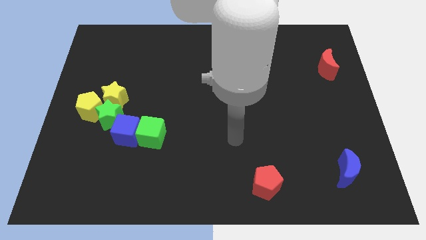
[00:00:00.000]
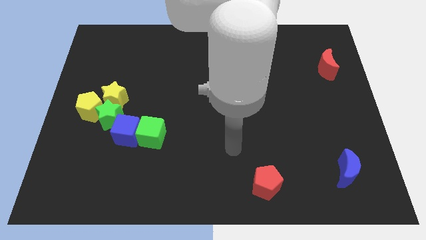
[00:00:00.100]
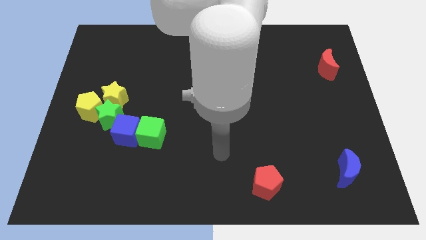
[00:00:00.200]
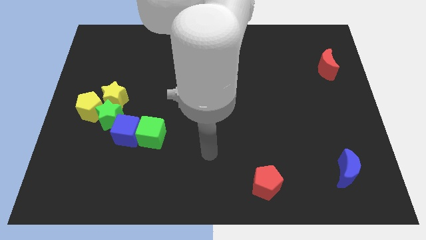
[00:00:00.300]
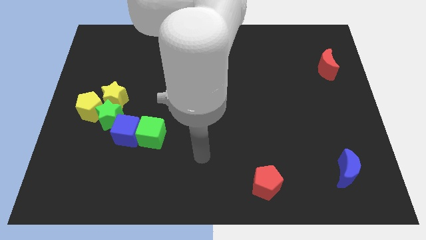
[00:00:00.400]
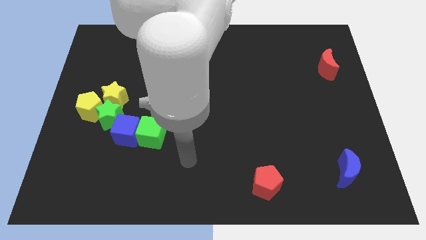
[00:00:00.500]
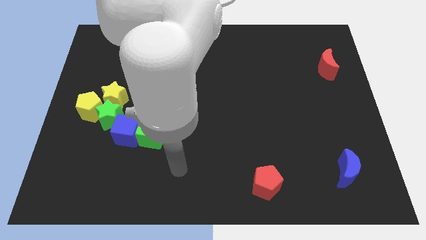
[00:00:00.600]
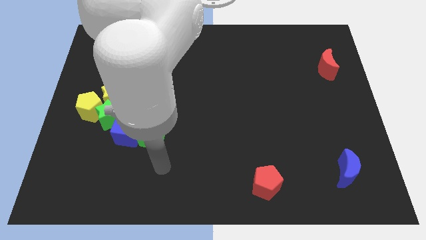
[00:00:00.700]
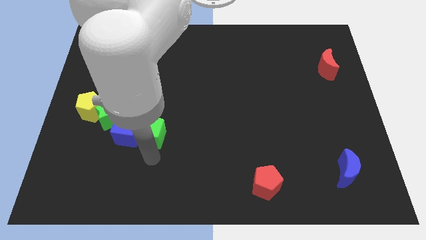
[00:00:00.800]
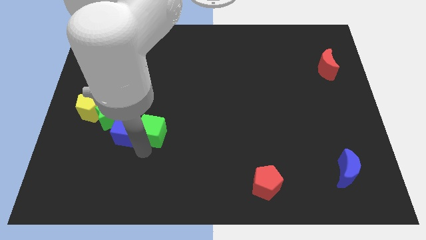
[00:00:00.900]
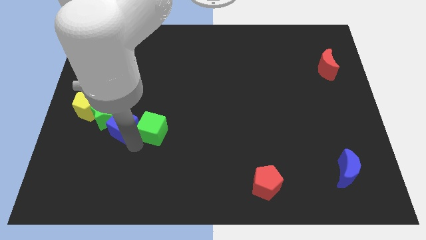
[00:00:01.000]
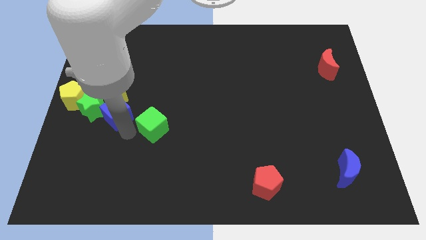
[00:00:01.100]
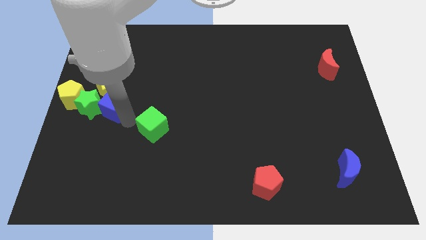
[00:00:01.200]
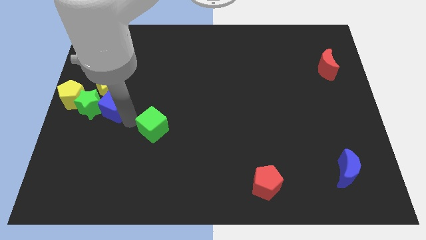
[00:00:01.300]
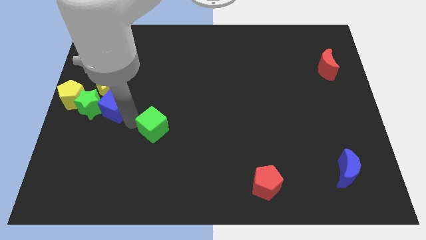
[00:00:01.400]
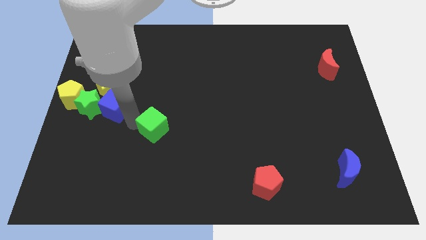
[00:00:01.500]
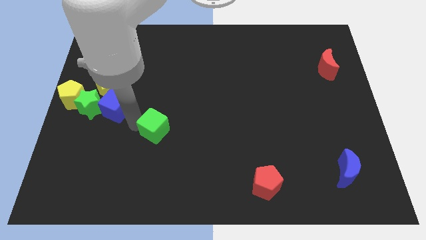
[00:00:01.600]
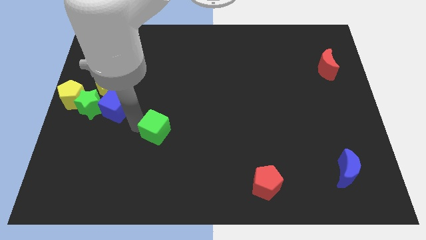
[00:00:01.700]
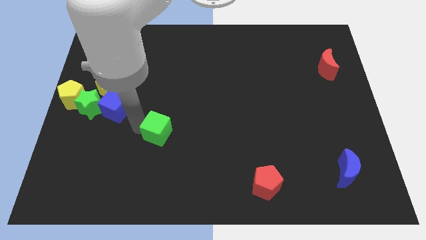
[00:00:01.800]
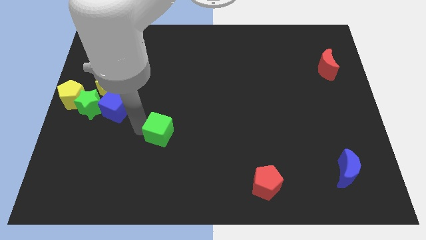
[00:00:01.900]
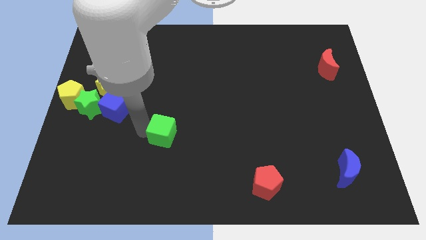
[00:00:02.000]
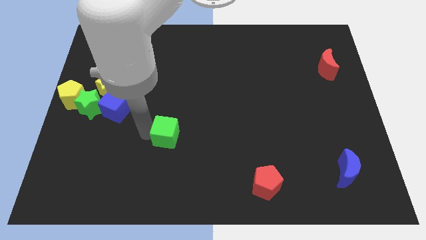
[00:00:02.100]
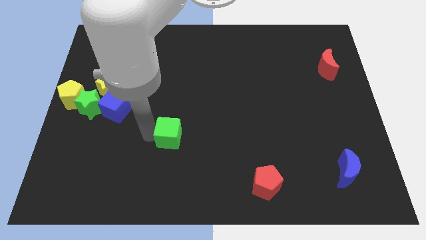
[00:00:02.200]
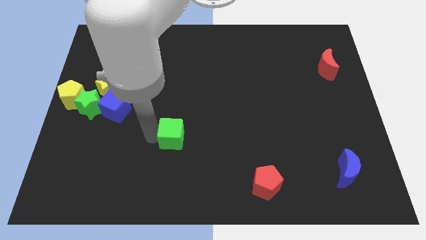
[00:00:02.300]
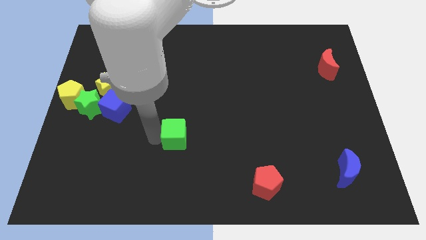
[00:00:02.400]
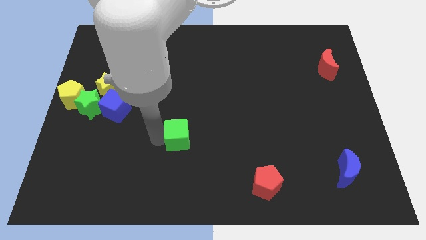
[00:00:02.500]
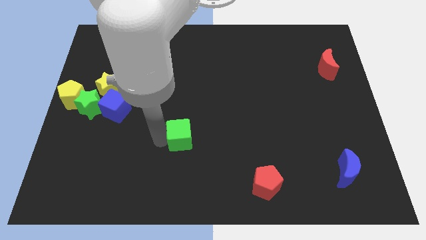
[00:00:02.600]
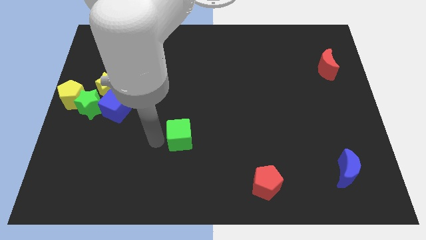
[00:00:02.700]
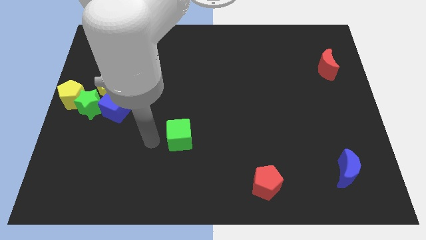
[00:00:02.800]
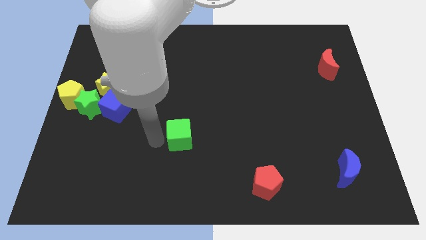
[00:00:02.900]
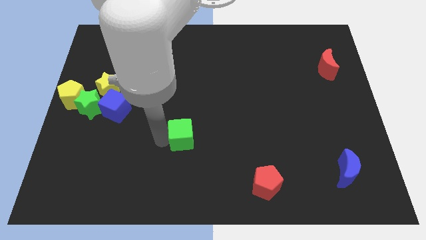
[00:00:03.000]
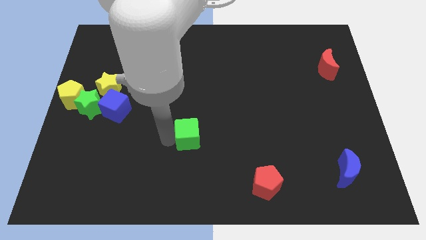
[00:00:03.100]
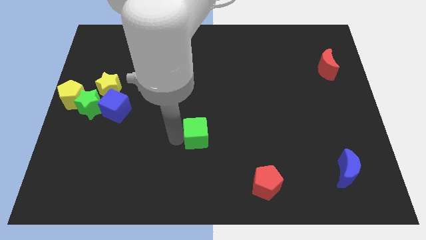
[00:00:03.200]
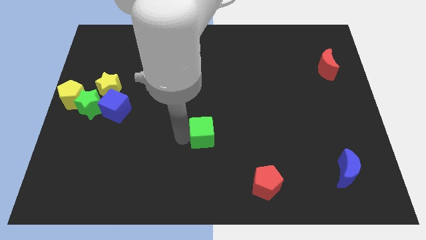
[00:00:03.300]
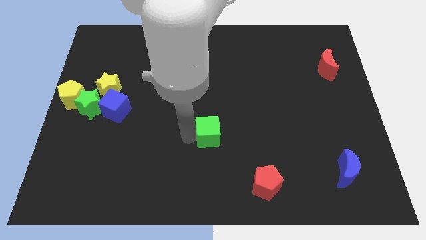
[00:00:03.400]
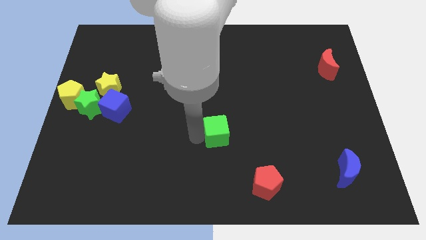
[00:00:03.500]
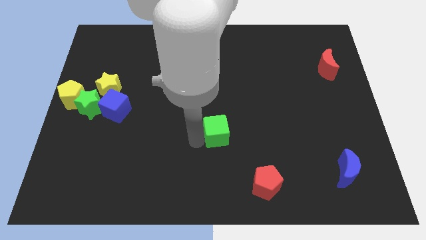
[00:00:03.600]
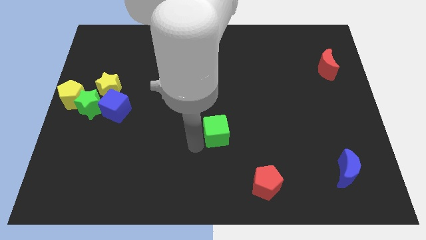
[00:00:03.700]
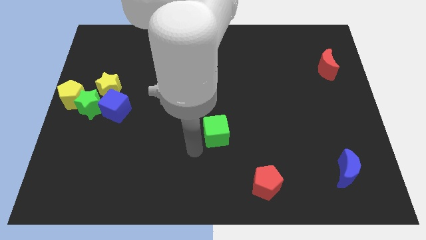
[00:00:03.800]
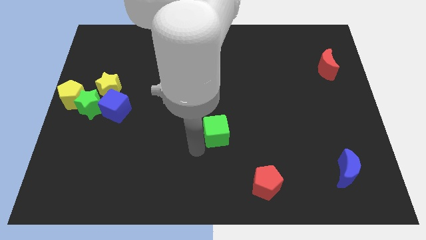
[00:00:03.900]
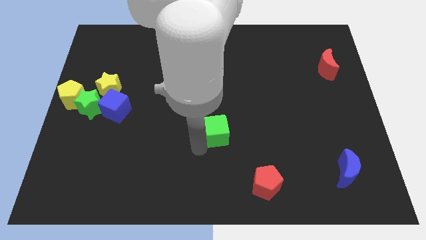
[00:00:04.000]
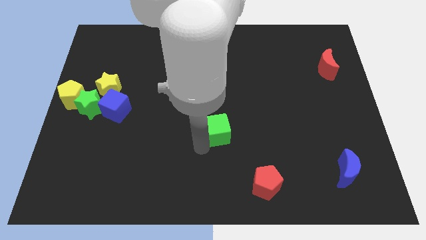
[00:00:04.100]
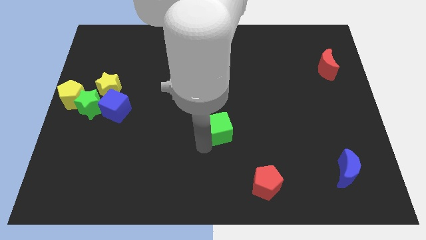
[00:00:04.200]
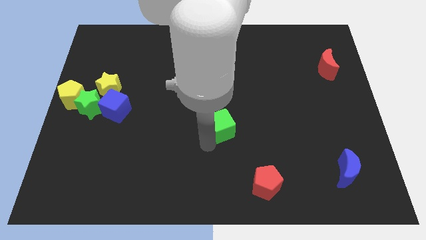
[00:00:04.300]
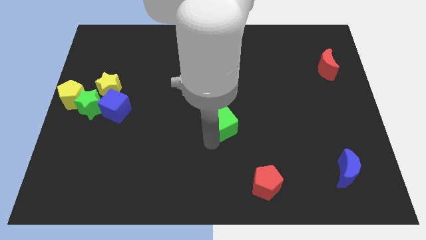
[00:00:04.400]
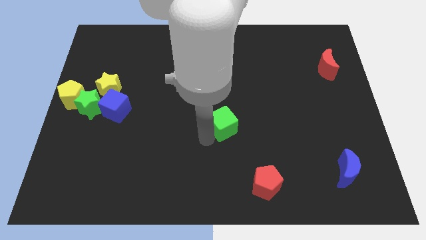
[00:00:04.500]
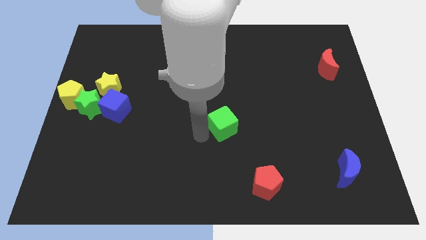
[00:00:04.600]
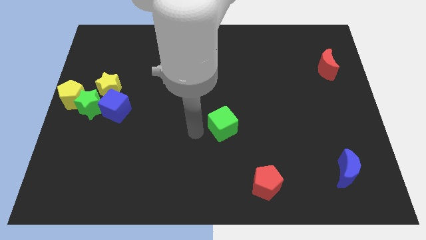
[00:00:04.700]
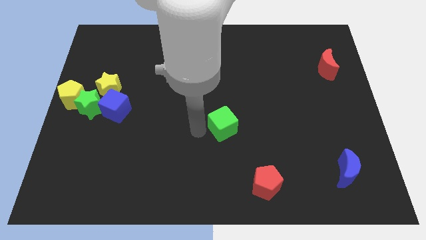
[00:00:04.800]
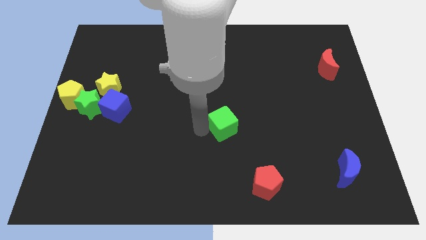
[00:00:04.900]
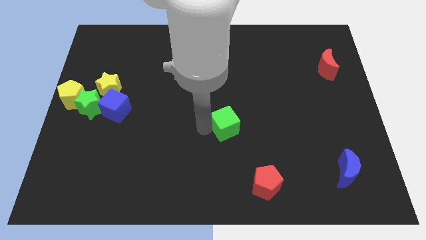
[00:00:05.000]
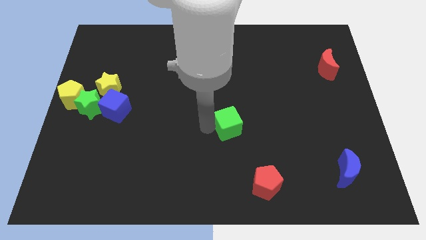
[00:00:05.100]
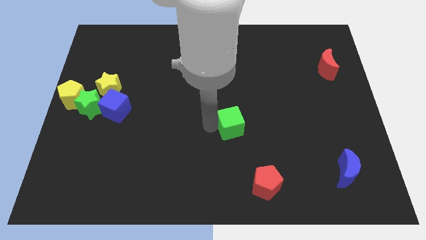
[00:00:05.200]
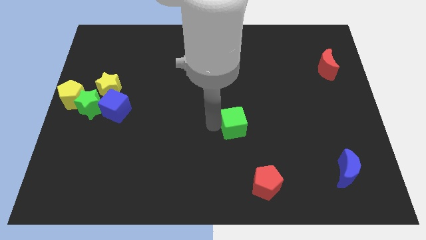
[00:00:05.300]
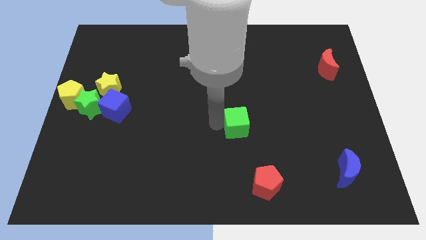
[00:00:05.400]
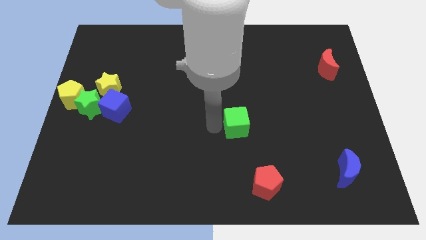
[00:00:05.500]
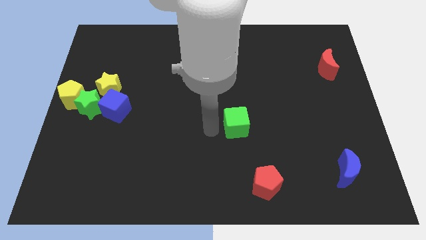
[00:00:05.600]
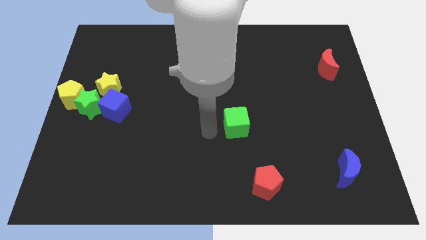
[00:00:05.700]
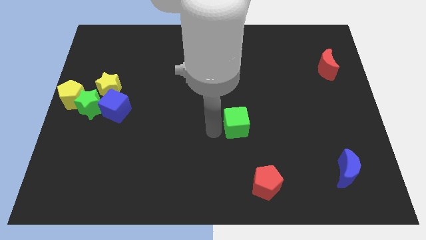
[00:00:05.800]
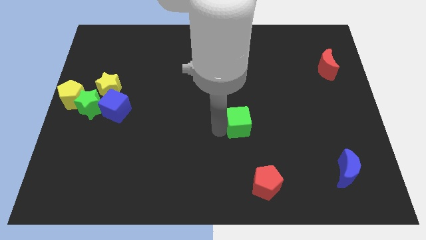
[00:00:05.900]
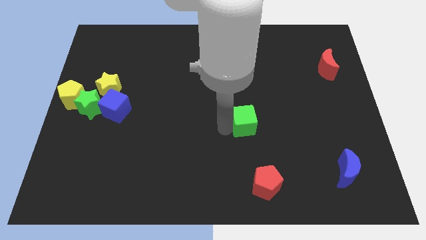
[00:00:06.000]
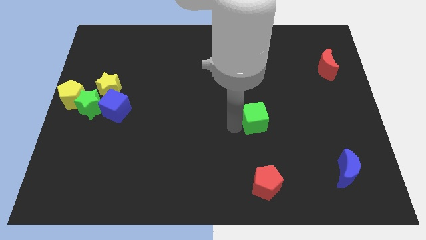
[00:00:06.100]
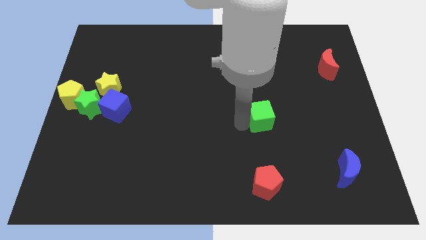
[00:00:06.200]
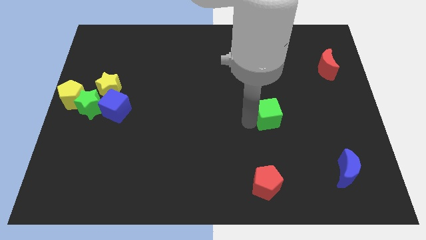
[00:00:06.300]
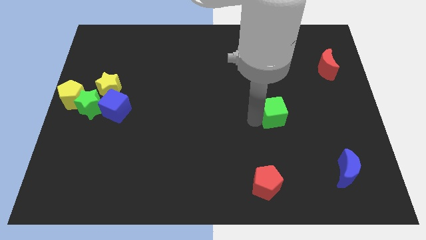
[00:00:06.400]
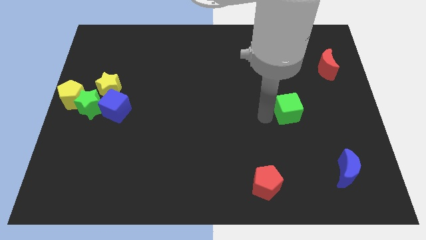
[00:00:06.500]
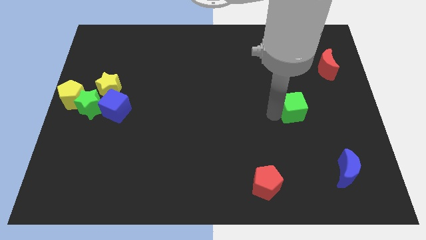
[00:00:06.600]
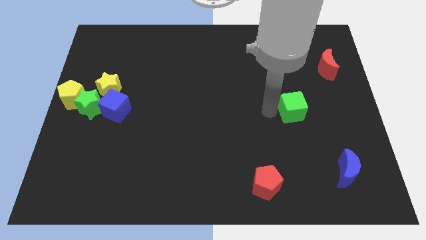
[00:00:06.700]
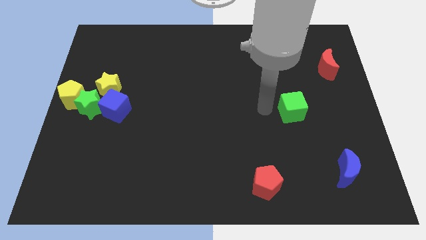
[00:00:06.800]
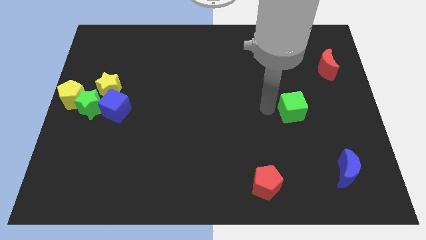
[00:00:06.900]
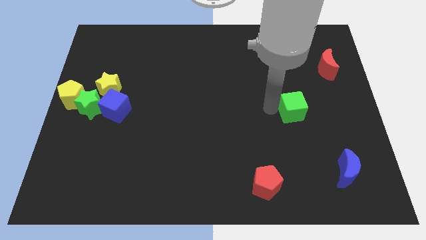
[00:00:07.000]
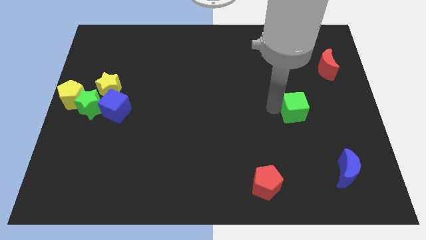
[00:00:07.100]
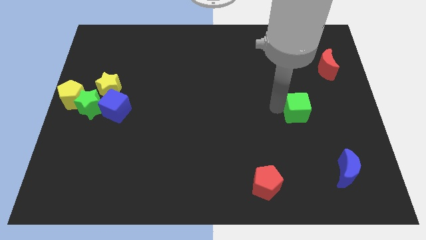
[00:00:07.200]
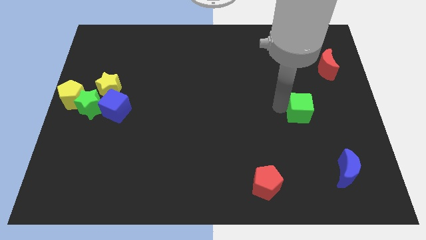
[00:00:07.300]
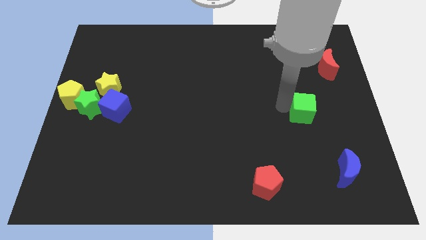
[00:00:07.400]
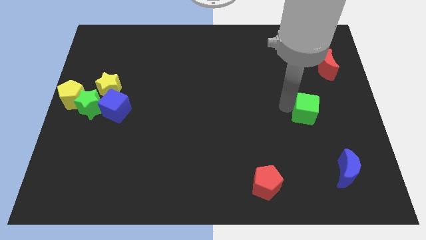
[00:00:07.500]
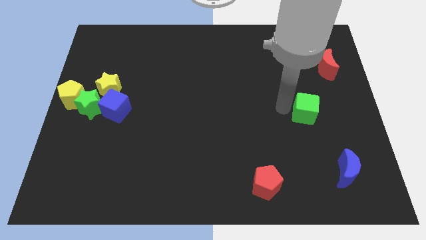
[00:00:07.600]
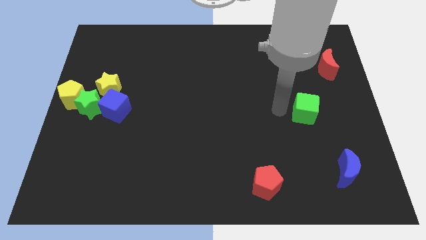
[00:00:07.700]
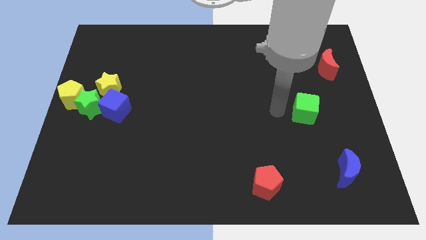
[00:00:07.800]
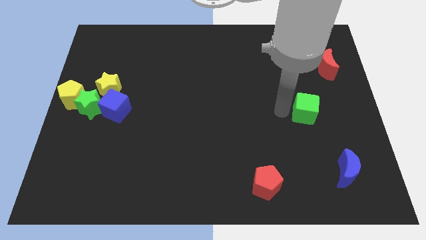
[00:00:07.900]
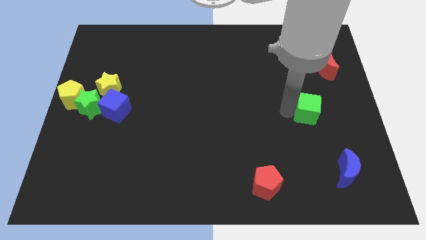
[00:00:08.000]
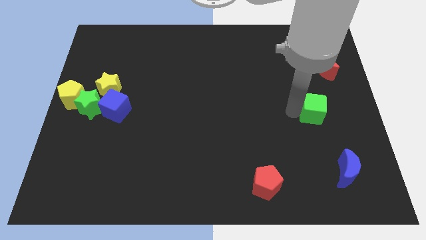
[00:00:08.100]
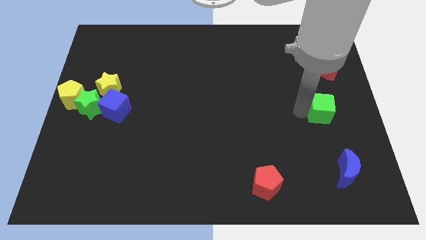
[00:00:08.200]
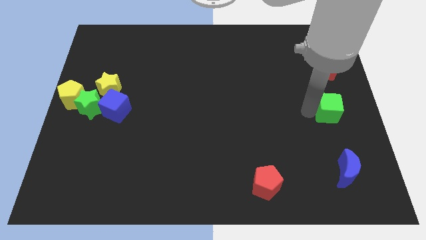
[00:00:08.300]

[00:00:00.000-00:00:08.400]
put the green cube to the right side of the board
